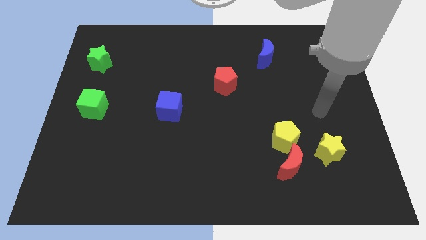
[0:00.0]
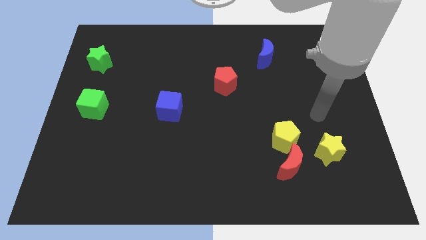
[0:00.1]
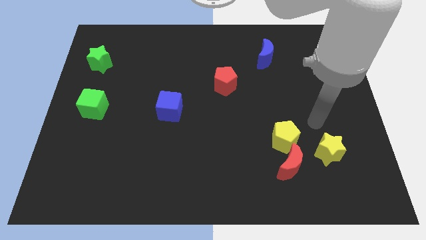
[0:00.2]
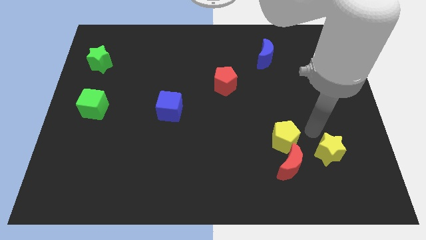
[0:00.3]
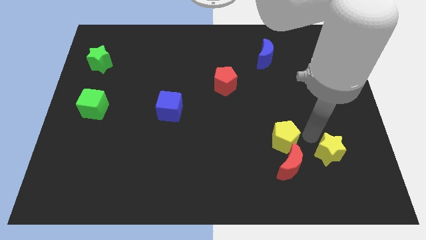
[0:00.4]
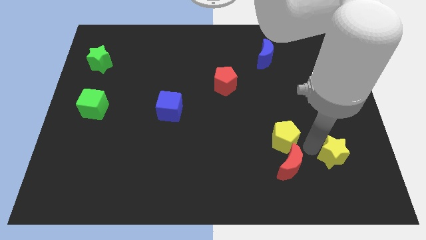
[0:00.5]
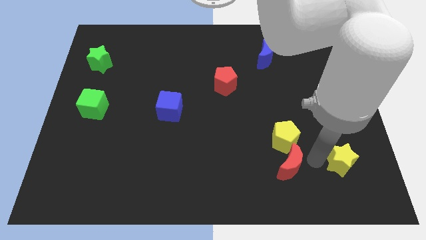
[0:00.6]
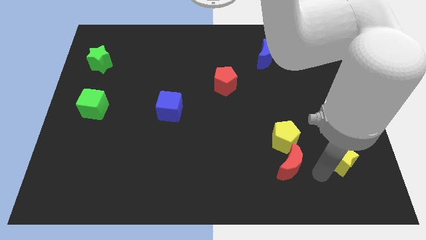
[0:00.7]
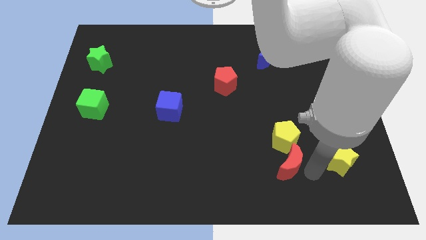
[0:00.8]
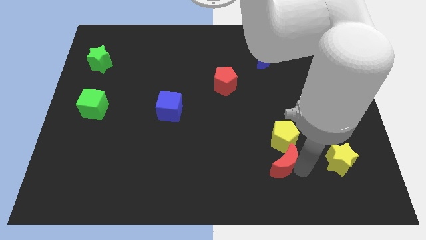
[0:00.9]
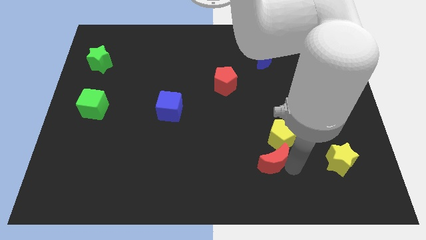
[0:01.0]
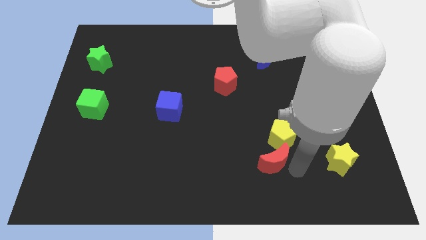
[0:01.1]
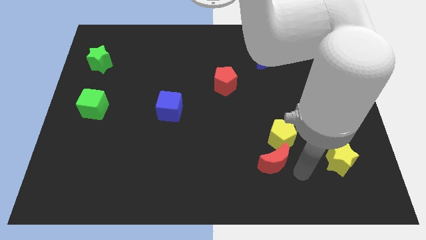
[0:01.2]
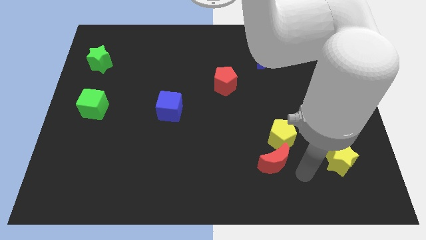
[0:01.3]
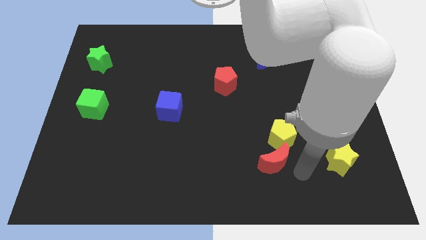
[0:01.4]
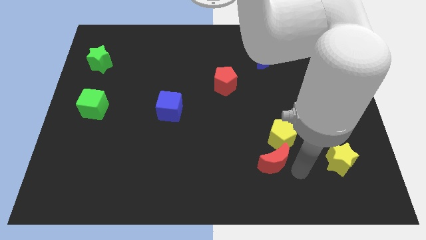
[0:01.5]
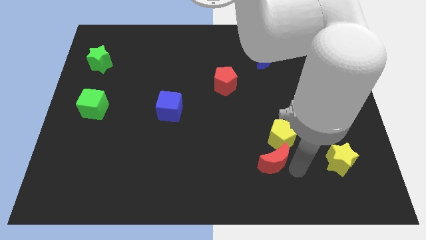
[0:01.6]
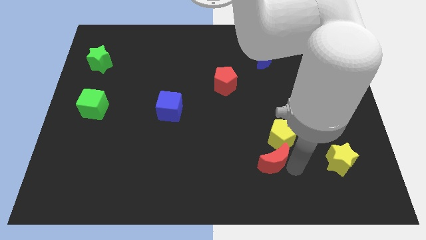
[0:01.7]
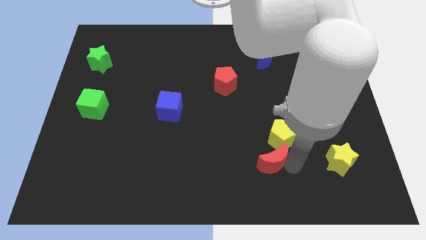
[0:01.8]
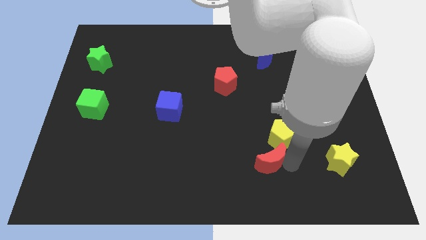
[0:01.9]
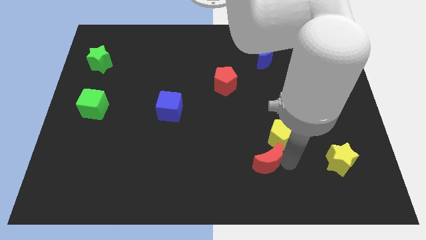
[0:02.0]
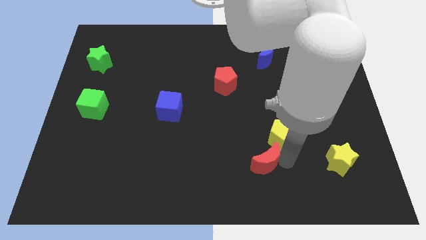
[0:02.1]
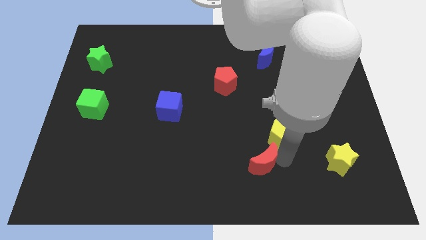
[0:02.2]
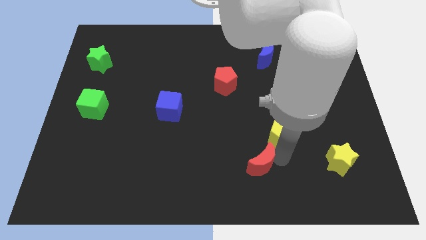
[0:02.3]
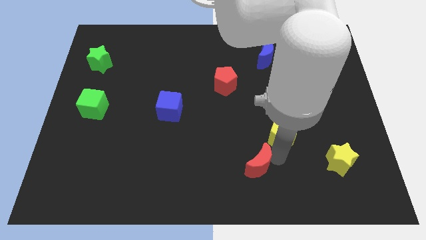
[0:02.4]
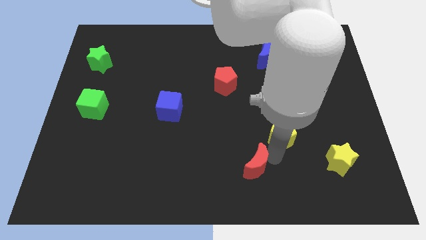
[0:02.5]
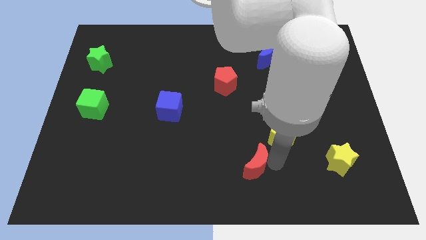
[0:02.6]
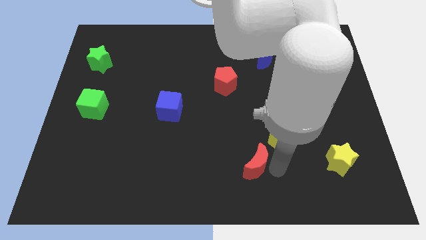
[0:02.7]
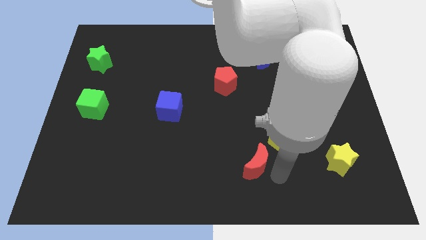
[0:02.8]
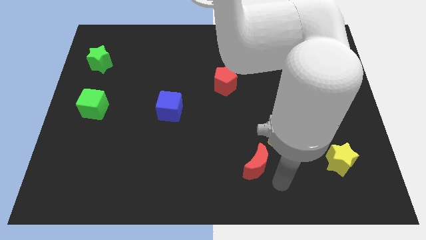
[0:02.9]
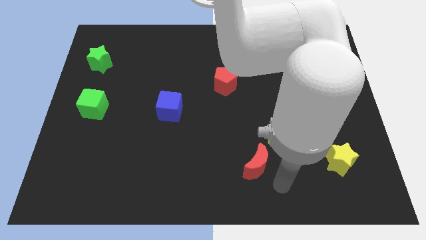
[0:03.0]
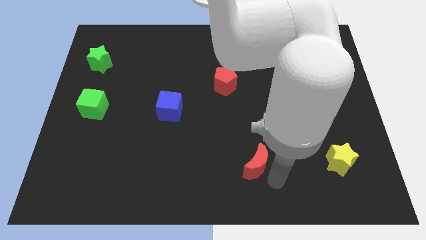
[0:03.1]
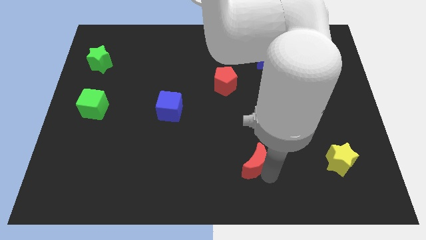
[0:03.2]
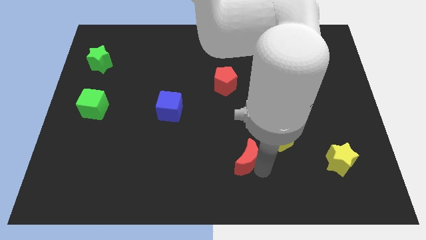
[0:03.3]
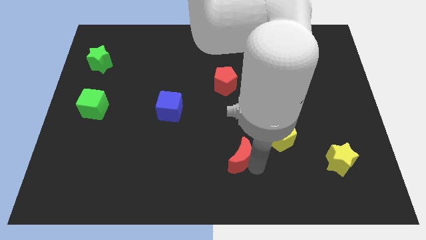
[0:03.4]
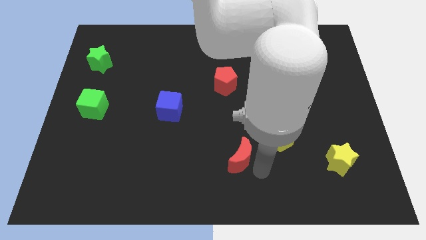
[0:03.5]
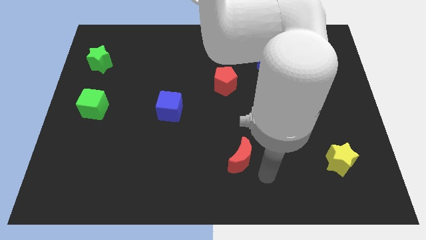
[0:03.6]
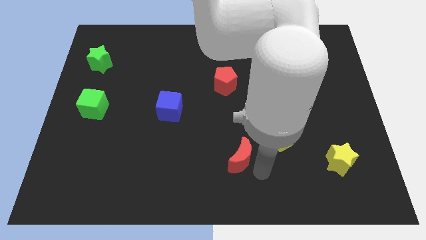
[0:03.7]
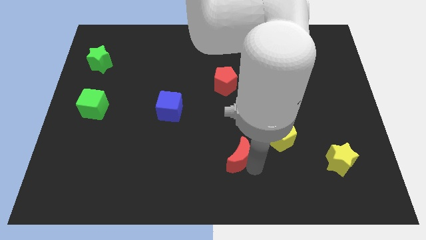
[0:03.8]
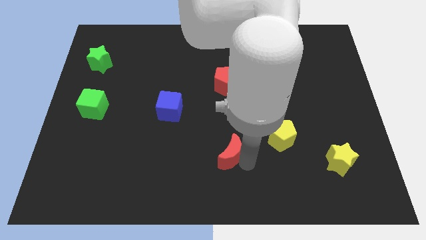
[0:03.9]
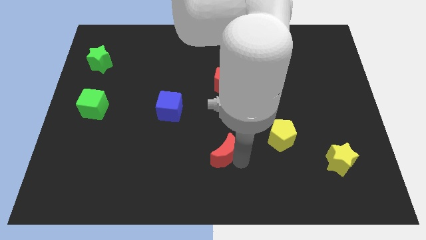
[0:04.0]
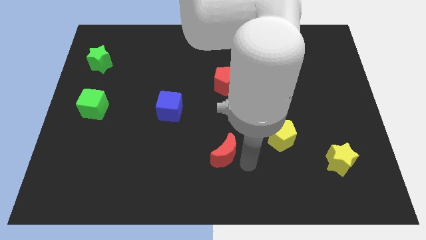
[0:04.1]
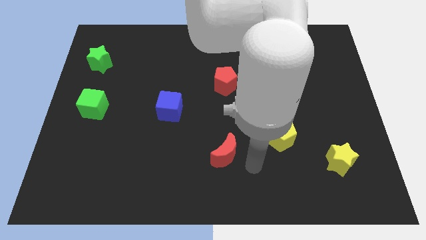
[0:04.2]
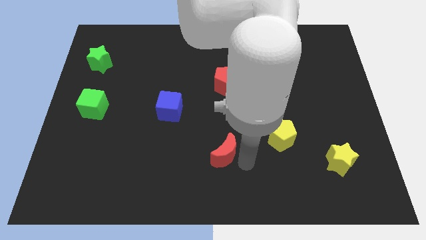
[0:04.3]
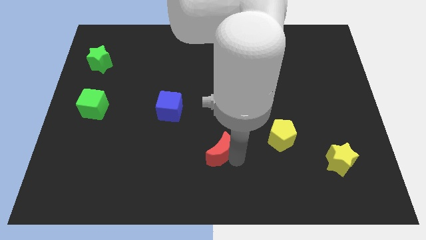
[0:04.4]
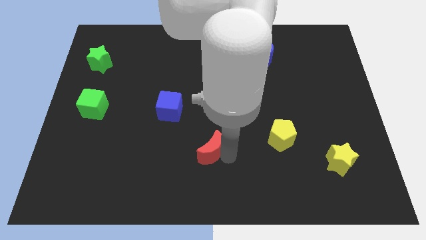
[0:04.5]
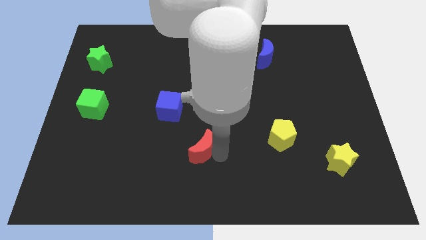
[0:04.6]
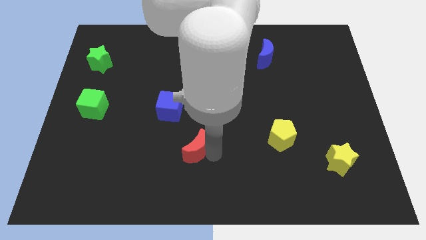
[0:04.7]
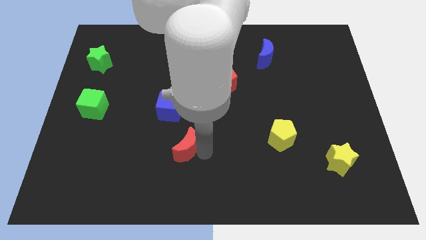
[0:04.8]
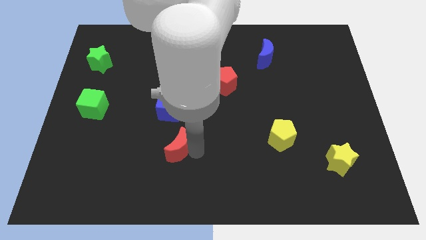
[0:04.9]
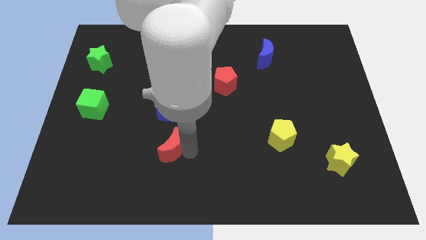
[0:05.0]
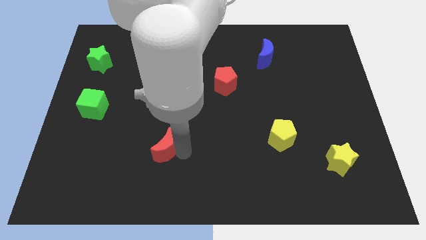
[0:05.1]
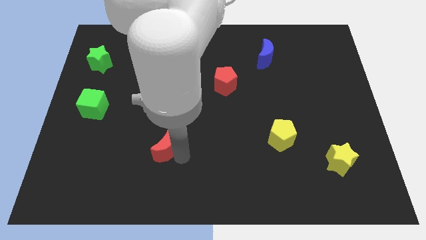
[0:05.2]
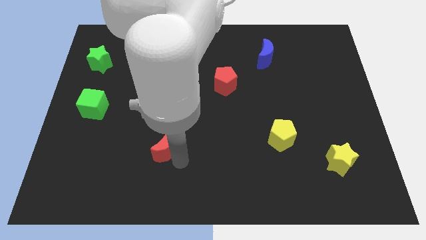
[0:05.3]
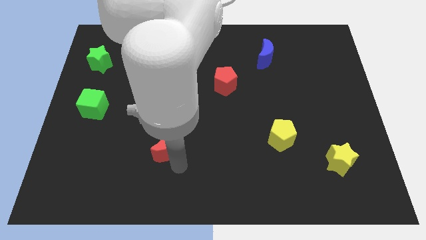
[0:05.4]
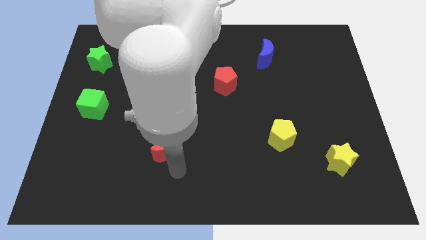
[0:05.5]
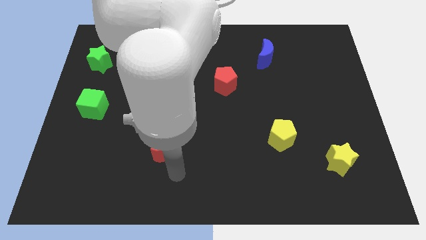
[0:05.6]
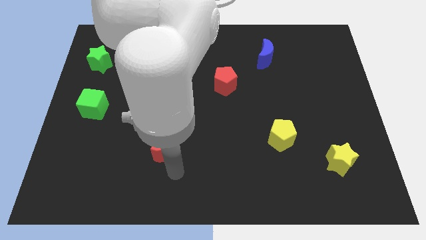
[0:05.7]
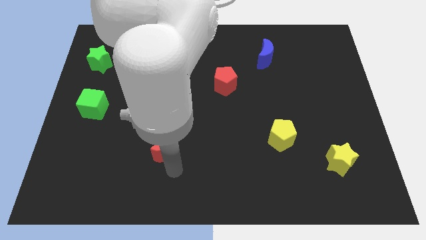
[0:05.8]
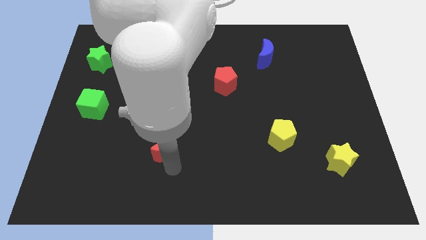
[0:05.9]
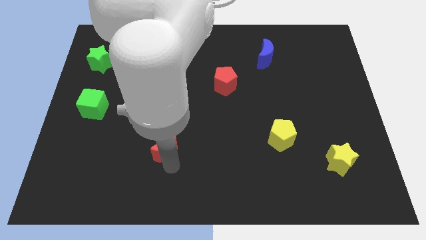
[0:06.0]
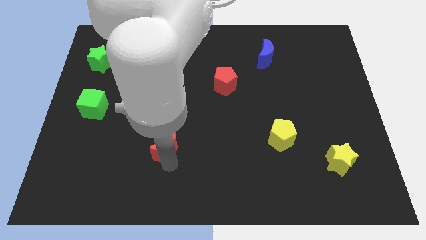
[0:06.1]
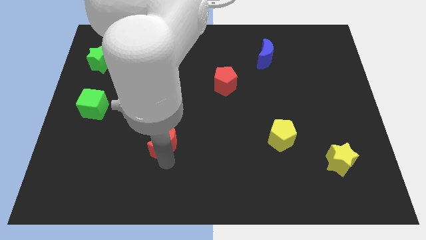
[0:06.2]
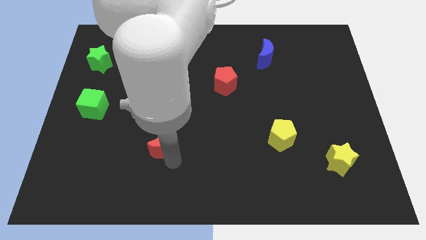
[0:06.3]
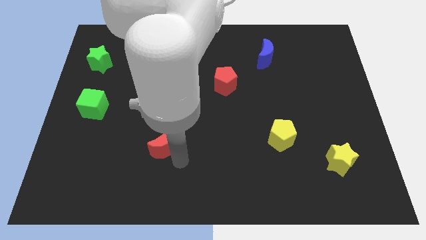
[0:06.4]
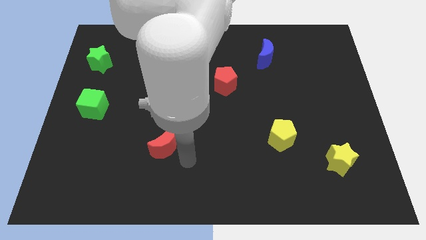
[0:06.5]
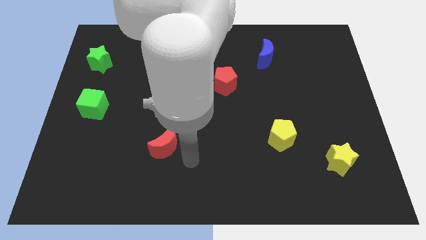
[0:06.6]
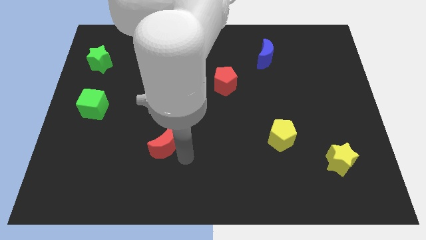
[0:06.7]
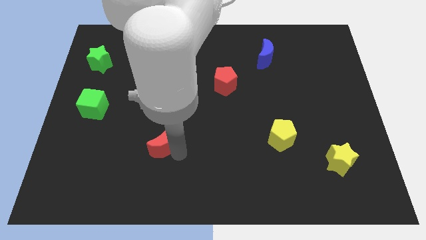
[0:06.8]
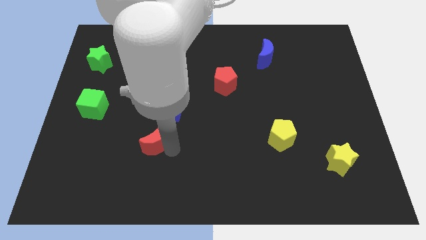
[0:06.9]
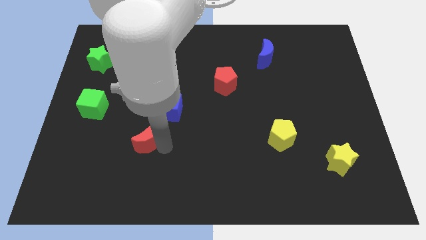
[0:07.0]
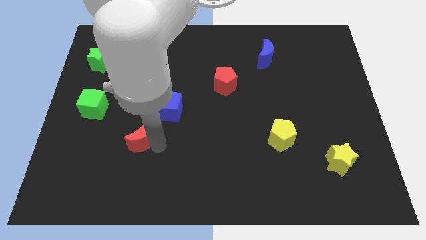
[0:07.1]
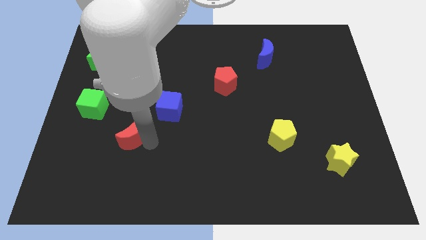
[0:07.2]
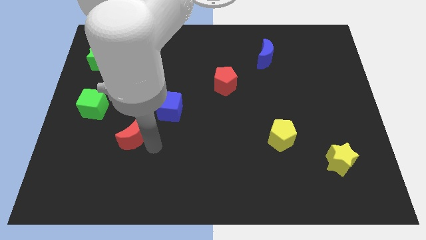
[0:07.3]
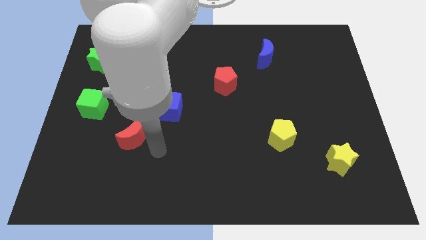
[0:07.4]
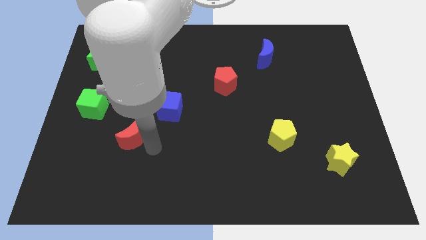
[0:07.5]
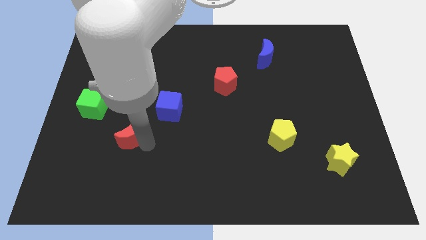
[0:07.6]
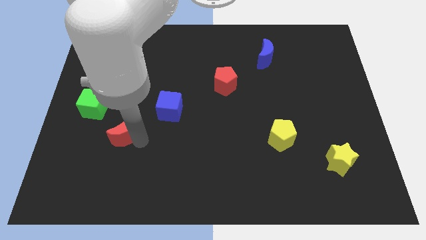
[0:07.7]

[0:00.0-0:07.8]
push the red moon diagonally down and to the right of the green cube
